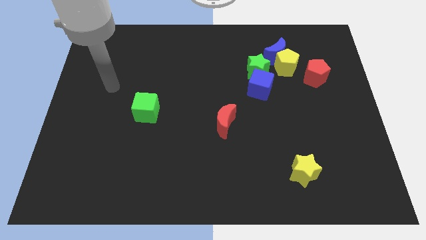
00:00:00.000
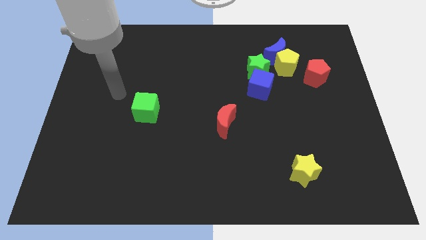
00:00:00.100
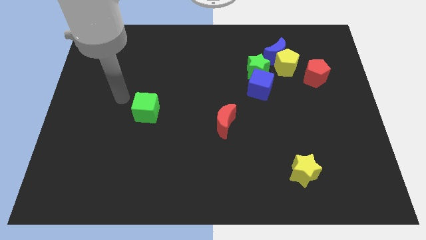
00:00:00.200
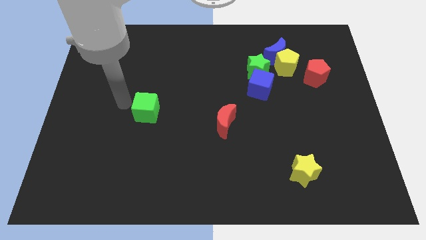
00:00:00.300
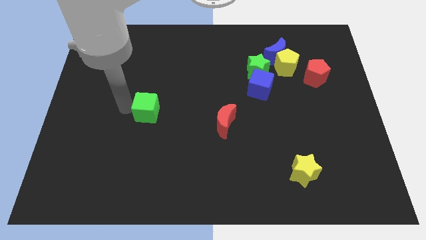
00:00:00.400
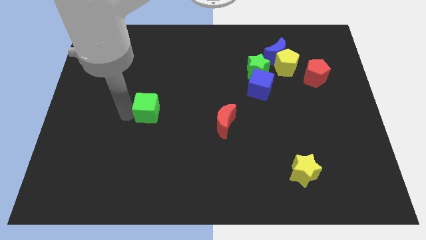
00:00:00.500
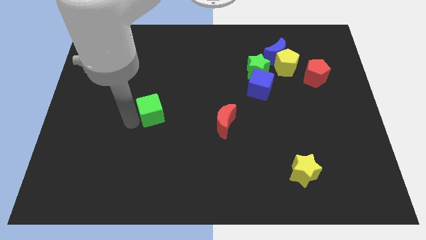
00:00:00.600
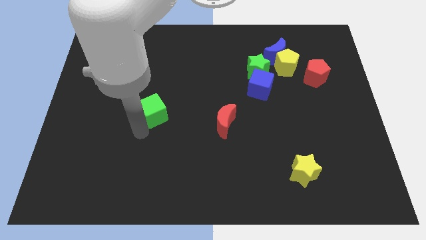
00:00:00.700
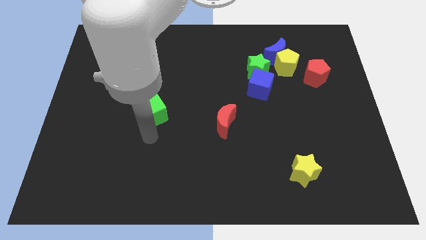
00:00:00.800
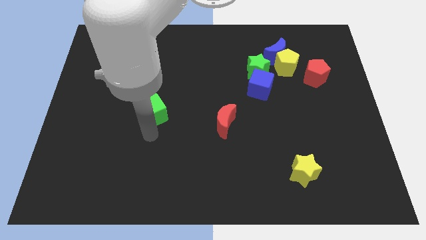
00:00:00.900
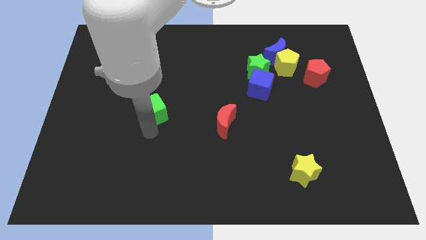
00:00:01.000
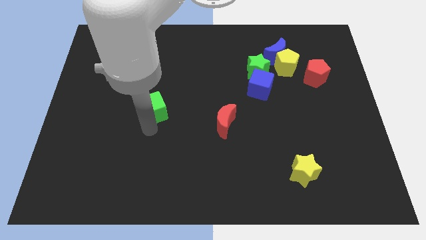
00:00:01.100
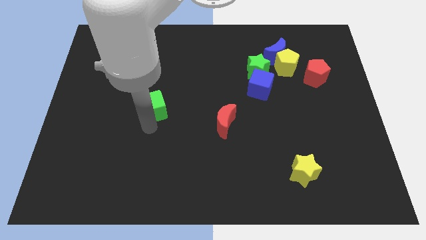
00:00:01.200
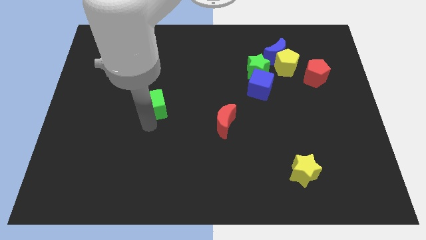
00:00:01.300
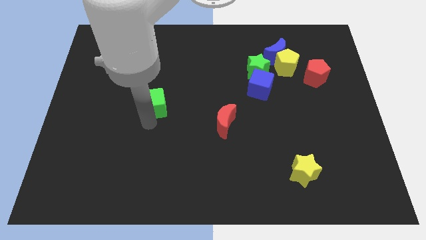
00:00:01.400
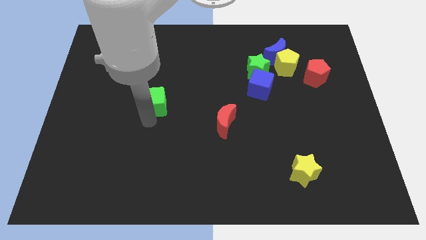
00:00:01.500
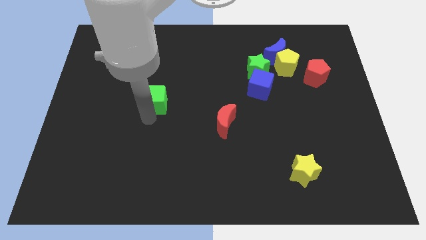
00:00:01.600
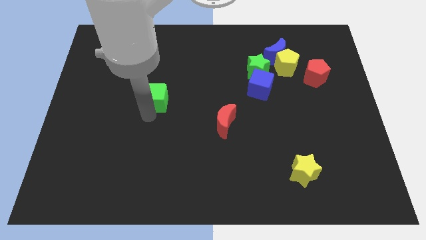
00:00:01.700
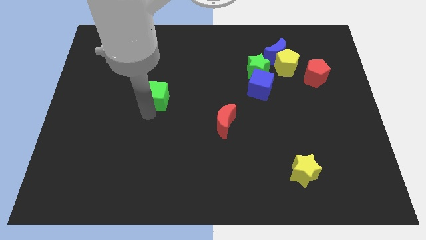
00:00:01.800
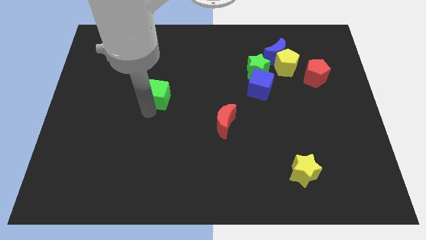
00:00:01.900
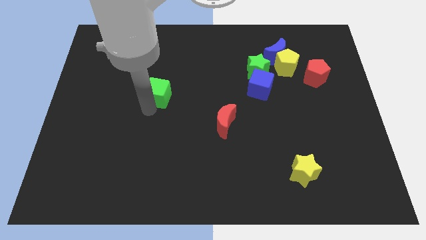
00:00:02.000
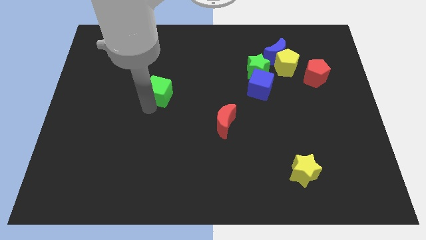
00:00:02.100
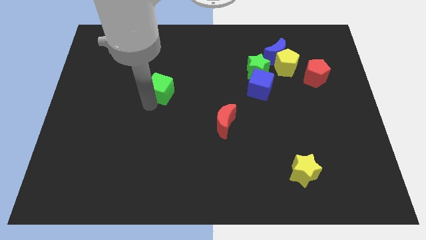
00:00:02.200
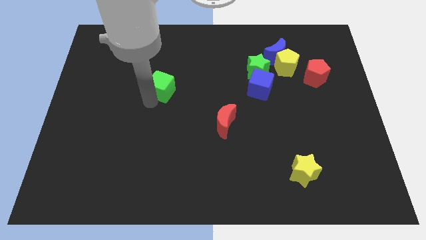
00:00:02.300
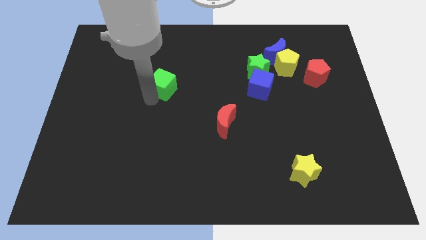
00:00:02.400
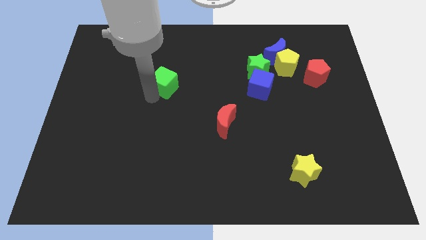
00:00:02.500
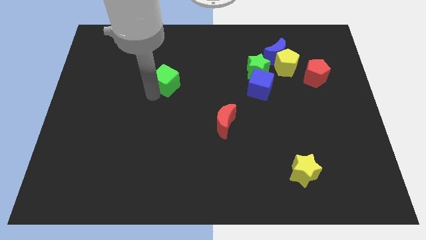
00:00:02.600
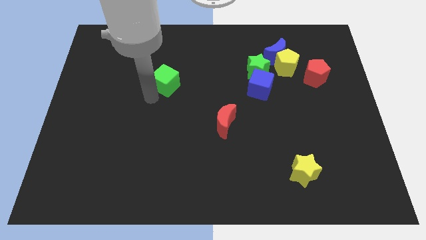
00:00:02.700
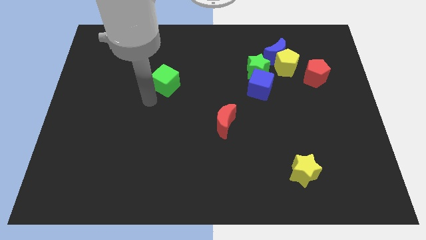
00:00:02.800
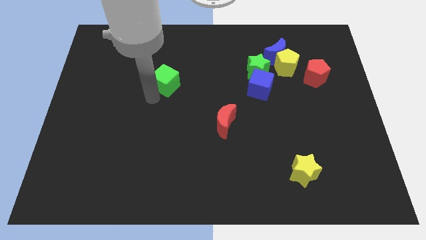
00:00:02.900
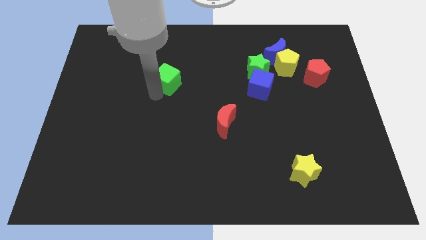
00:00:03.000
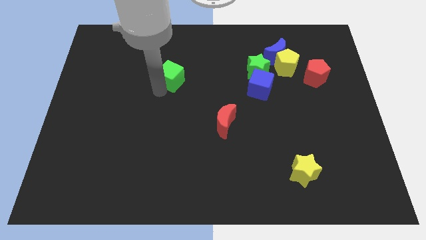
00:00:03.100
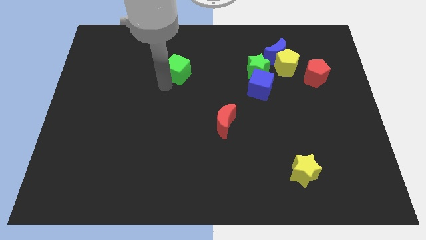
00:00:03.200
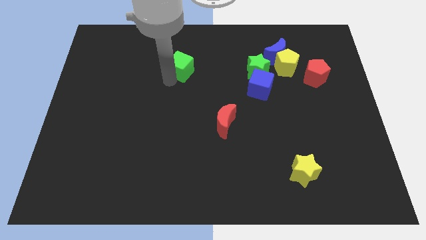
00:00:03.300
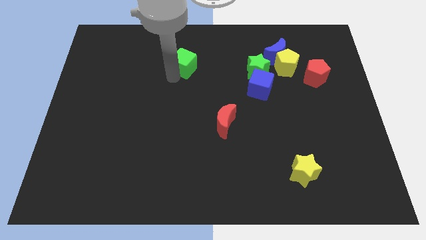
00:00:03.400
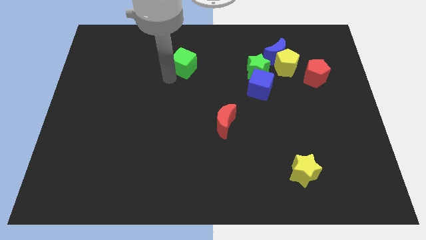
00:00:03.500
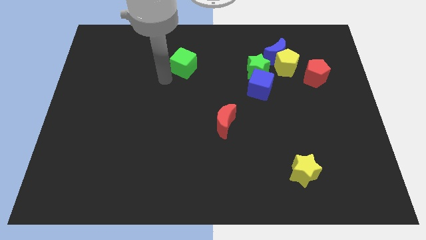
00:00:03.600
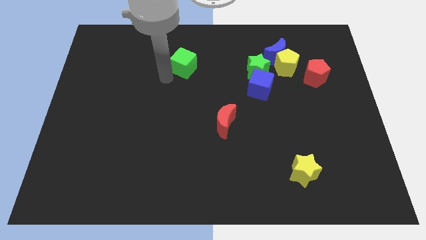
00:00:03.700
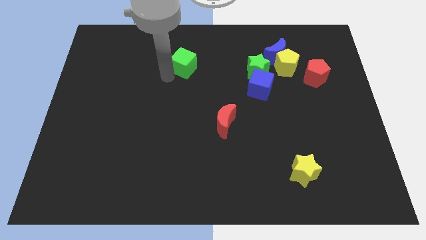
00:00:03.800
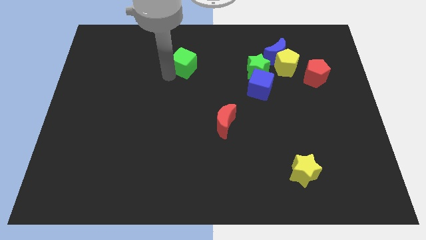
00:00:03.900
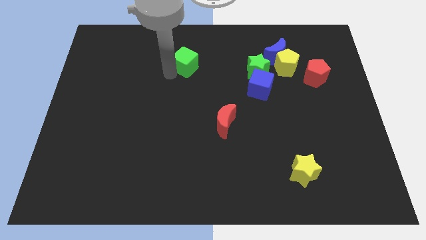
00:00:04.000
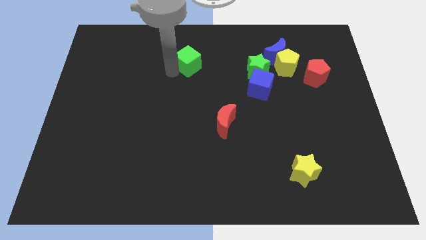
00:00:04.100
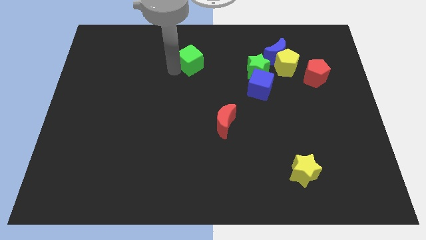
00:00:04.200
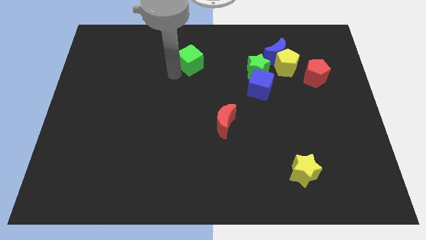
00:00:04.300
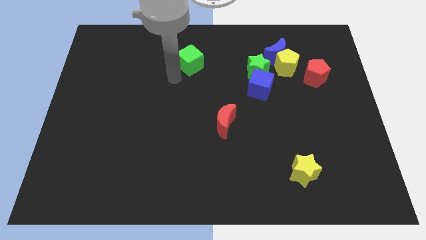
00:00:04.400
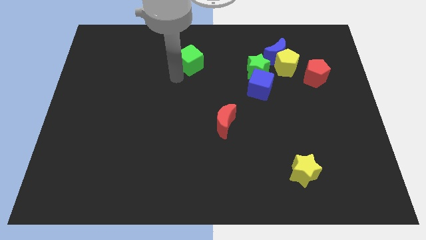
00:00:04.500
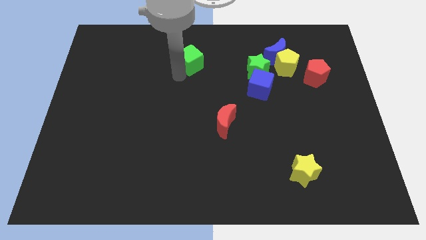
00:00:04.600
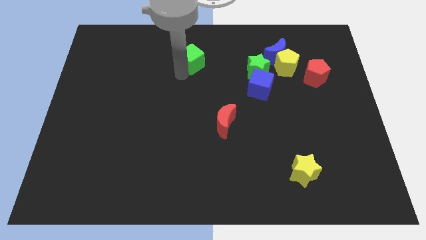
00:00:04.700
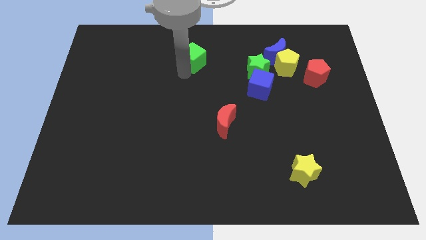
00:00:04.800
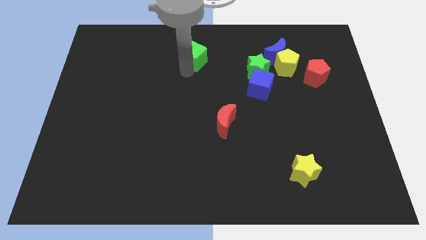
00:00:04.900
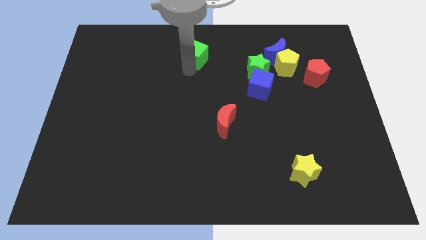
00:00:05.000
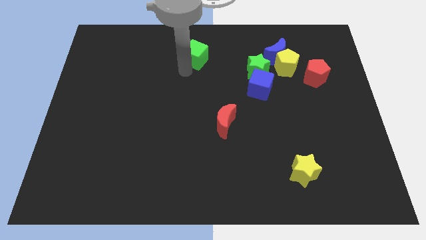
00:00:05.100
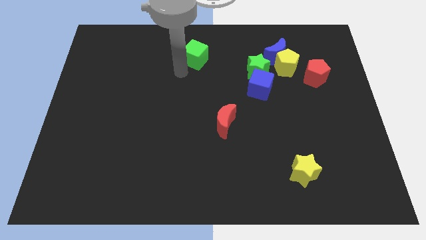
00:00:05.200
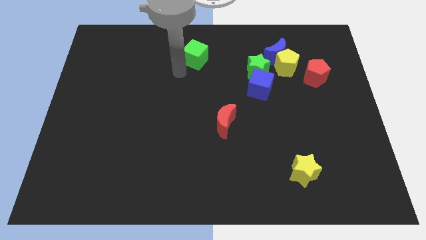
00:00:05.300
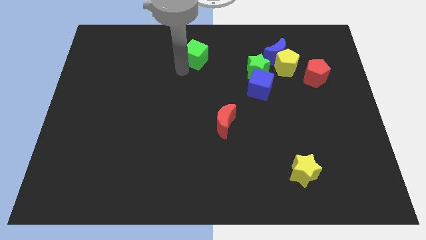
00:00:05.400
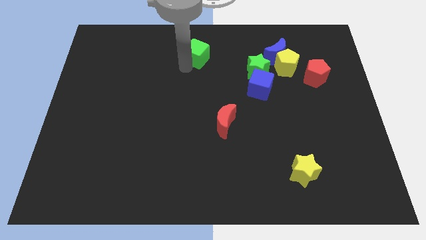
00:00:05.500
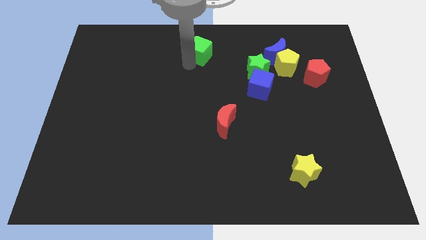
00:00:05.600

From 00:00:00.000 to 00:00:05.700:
slide the green cube to the top side
